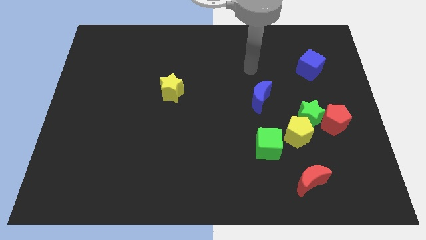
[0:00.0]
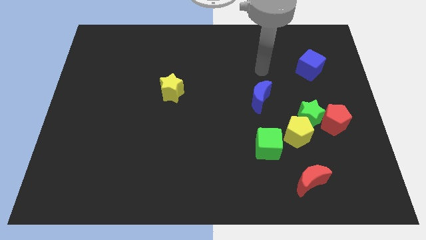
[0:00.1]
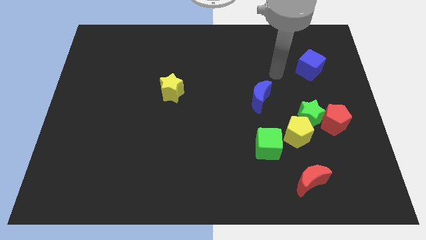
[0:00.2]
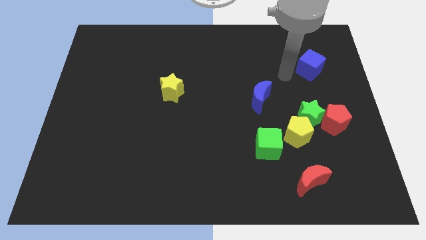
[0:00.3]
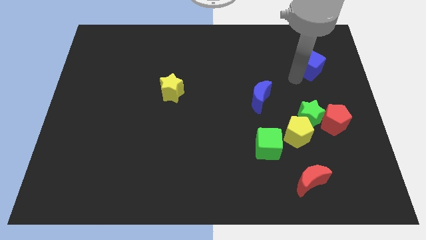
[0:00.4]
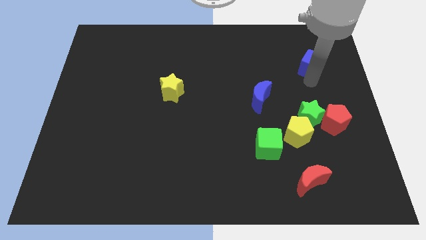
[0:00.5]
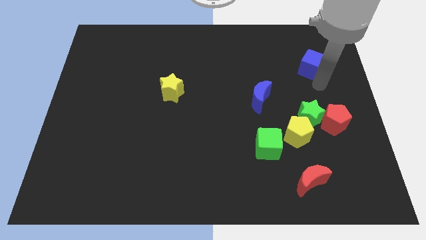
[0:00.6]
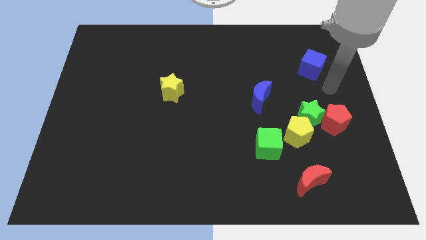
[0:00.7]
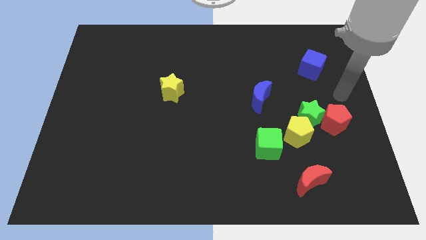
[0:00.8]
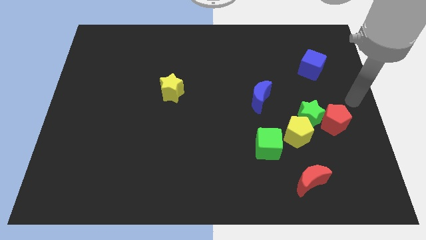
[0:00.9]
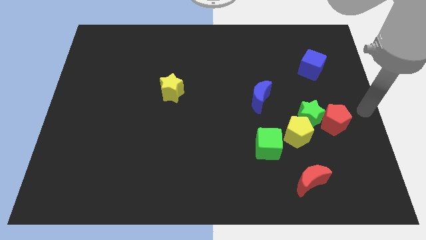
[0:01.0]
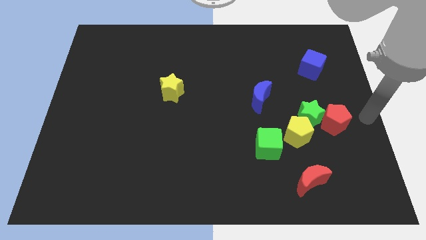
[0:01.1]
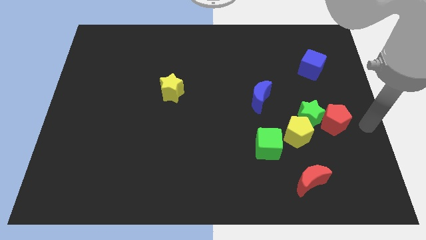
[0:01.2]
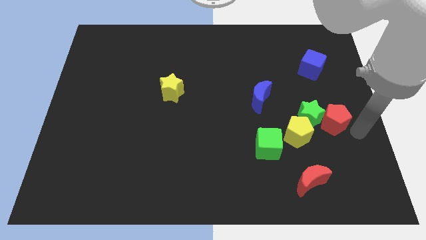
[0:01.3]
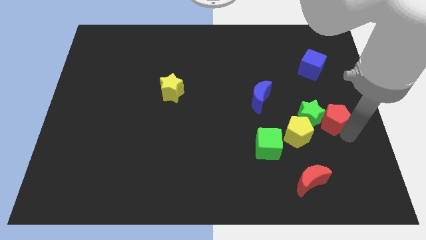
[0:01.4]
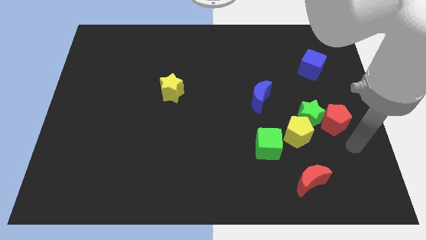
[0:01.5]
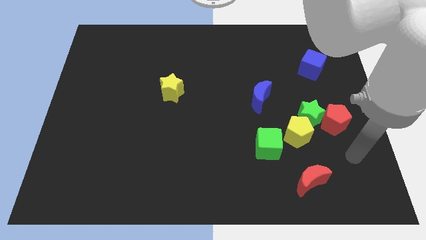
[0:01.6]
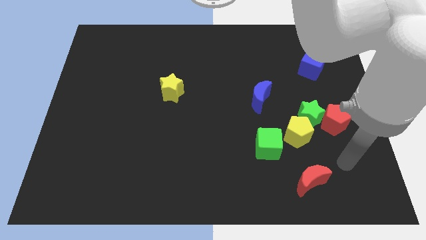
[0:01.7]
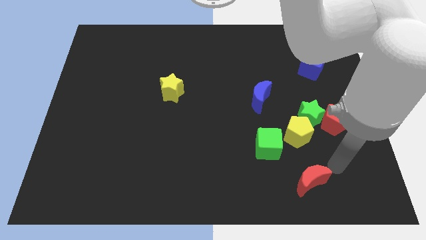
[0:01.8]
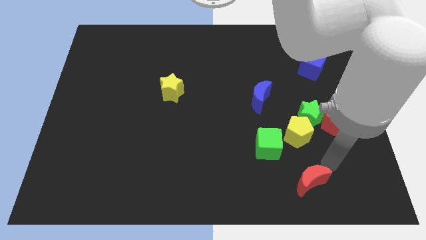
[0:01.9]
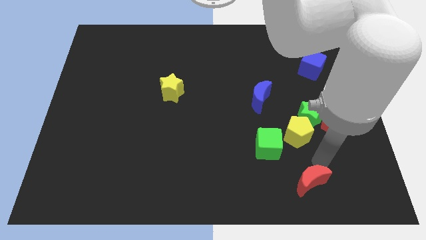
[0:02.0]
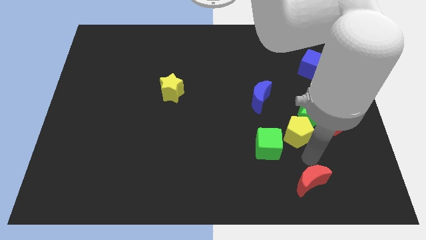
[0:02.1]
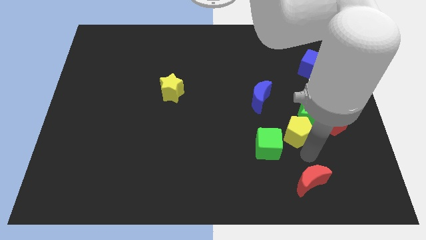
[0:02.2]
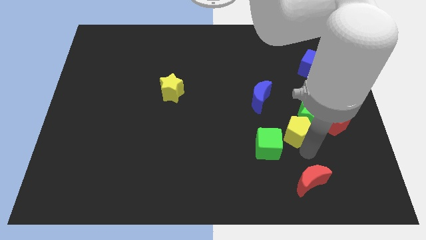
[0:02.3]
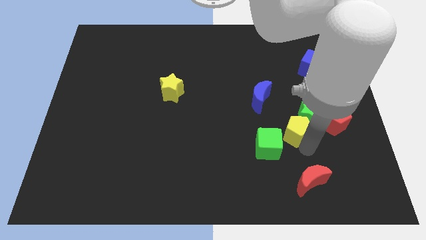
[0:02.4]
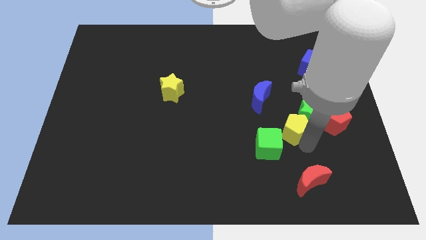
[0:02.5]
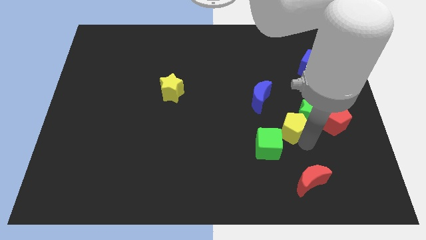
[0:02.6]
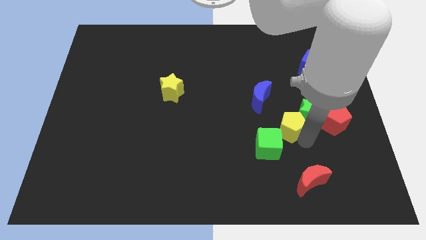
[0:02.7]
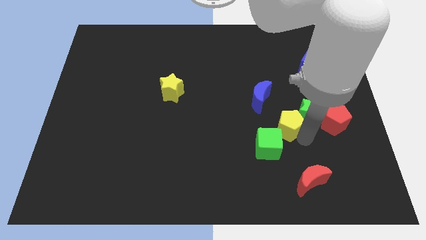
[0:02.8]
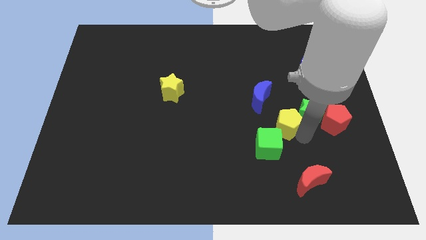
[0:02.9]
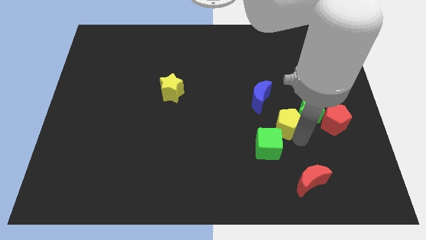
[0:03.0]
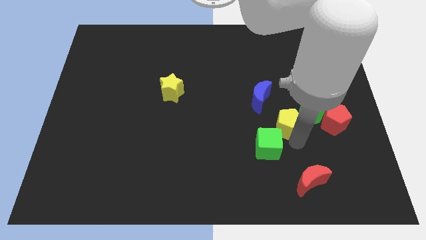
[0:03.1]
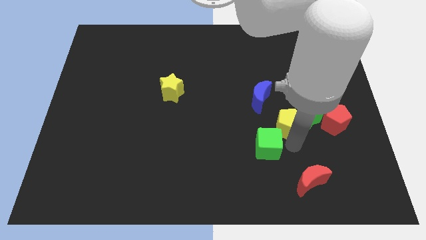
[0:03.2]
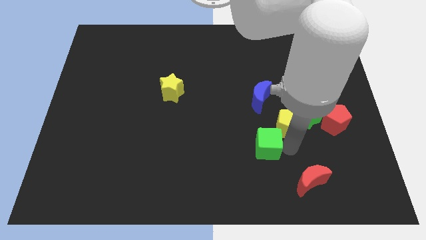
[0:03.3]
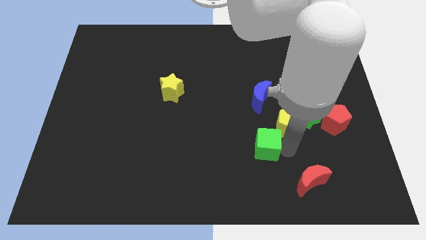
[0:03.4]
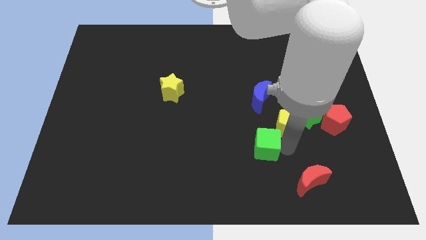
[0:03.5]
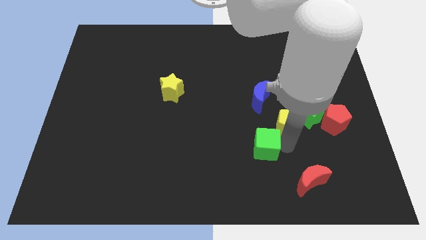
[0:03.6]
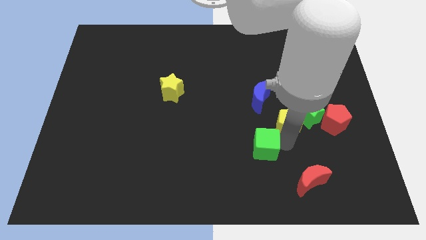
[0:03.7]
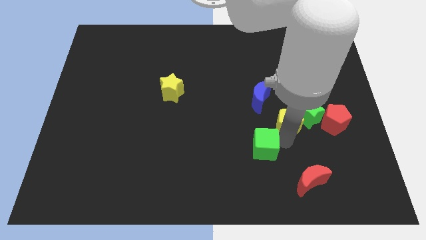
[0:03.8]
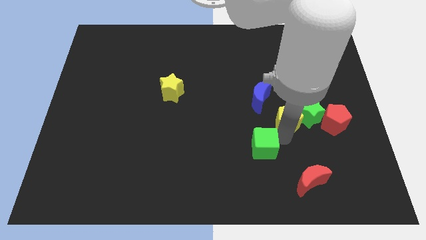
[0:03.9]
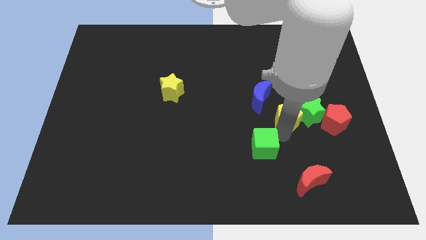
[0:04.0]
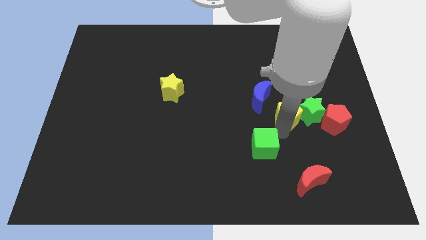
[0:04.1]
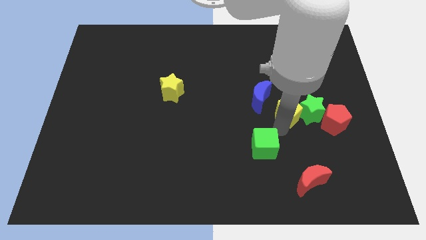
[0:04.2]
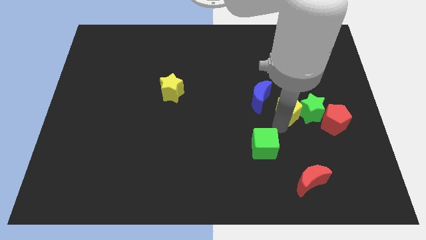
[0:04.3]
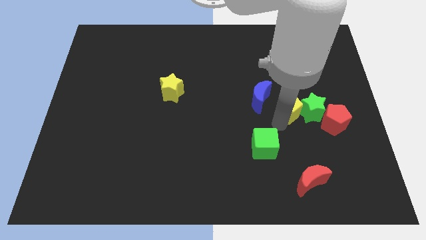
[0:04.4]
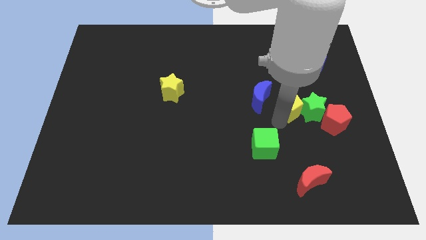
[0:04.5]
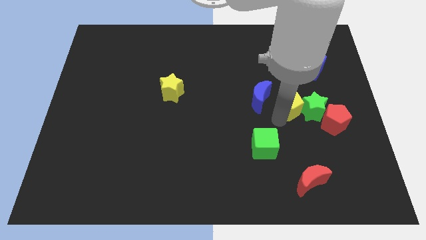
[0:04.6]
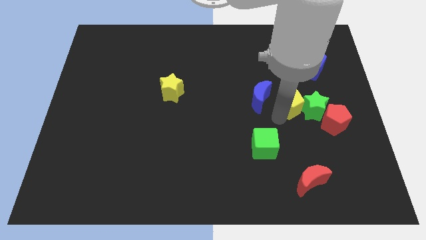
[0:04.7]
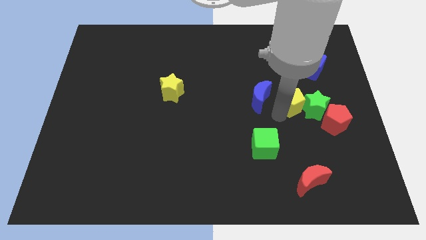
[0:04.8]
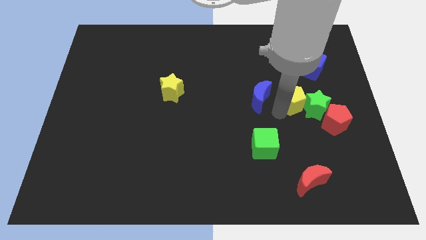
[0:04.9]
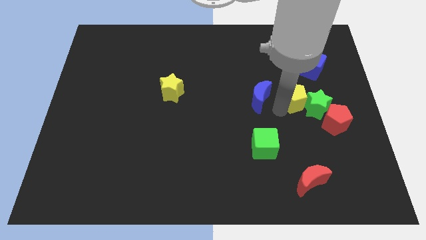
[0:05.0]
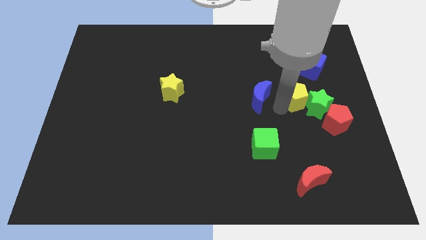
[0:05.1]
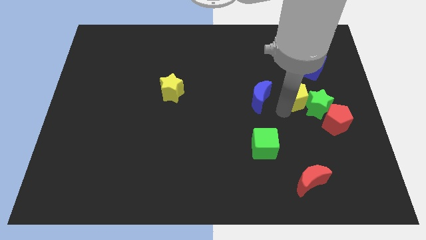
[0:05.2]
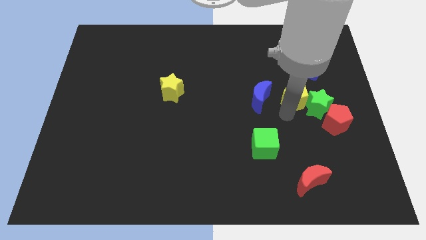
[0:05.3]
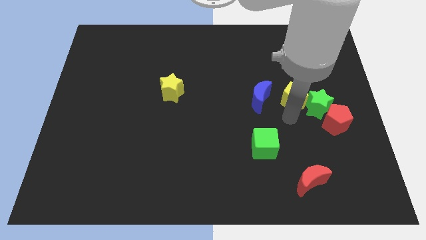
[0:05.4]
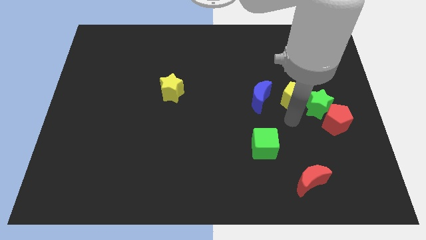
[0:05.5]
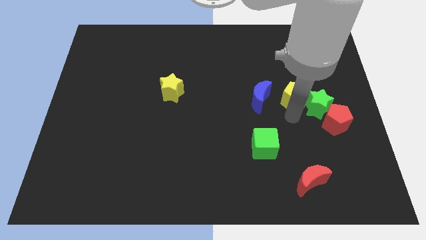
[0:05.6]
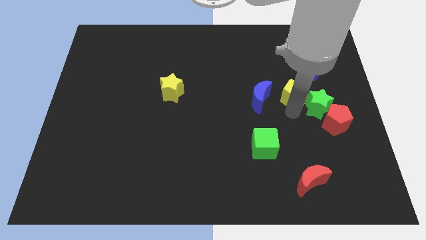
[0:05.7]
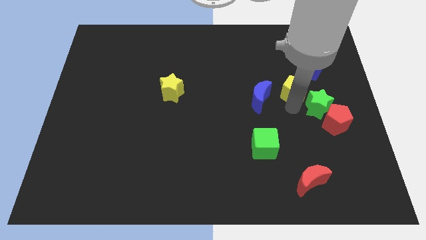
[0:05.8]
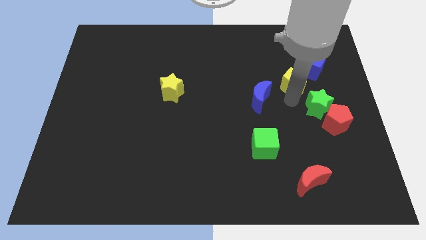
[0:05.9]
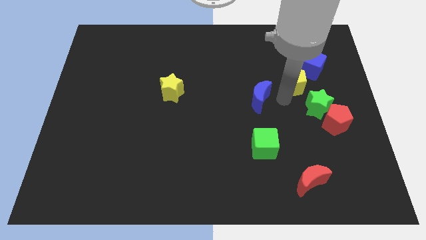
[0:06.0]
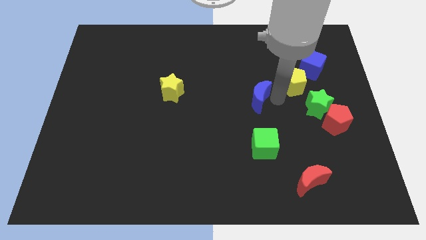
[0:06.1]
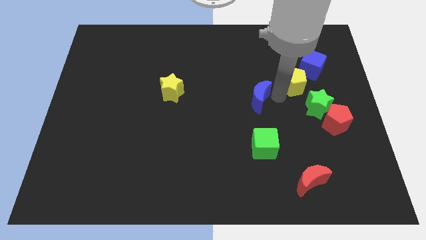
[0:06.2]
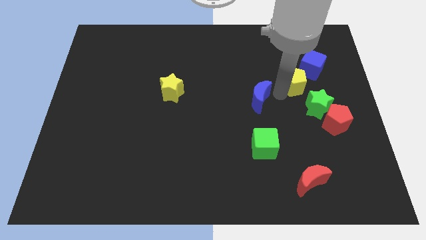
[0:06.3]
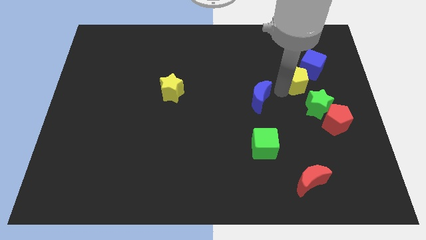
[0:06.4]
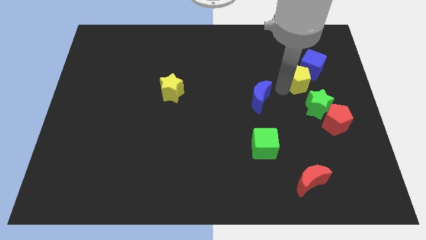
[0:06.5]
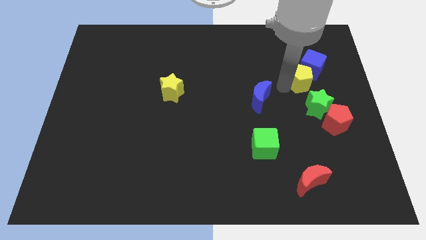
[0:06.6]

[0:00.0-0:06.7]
move the yellow pentagon to the blue cube

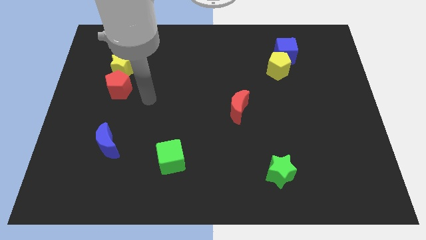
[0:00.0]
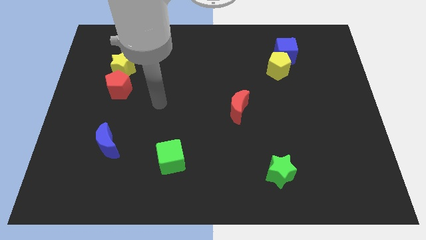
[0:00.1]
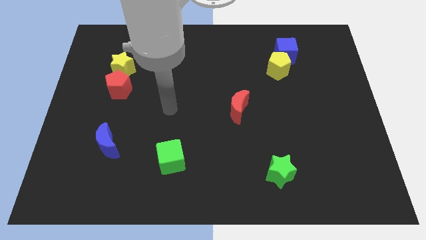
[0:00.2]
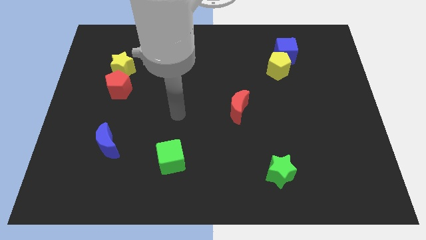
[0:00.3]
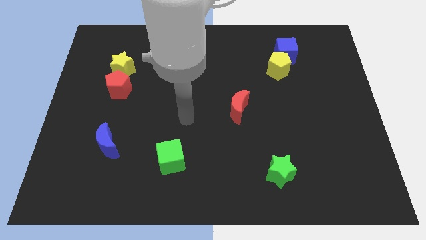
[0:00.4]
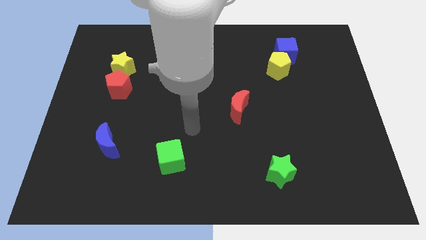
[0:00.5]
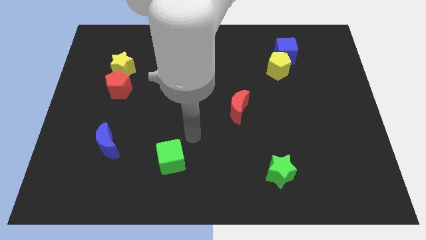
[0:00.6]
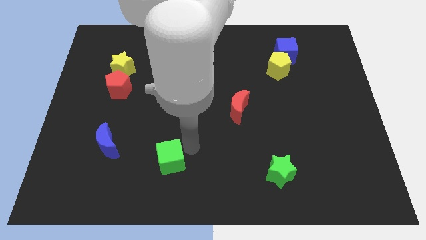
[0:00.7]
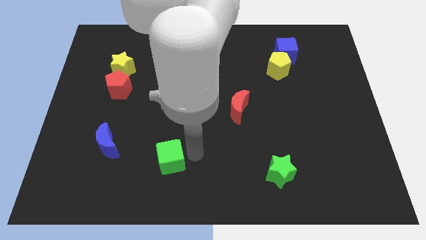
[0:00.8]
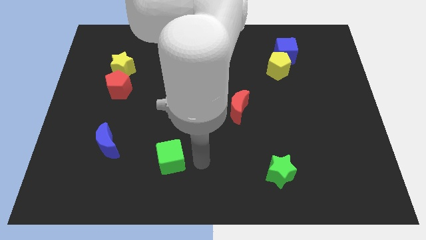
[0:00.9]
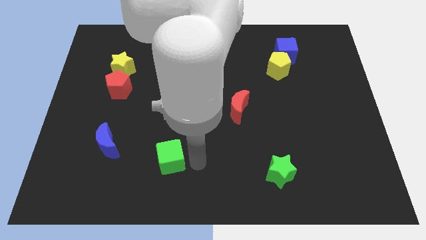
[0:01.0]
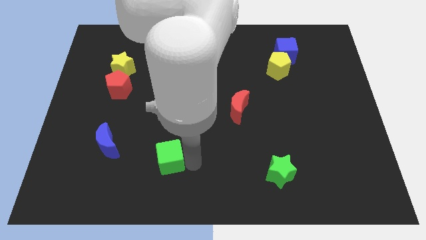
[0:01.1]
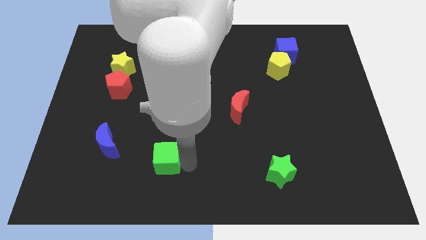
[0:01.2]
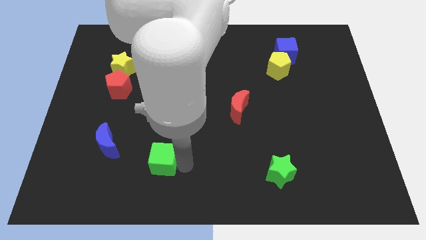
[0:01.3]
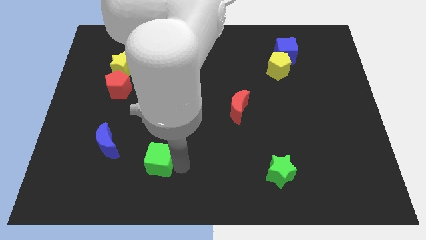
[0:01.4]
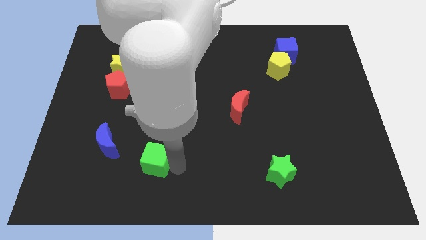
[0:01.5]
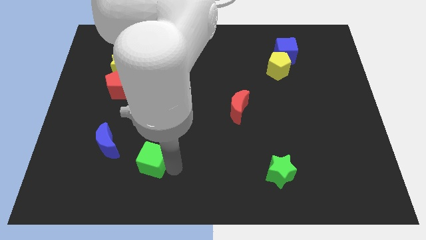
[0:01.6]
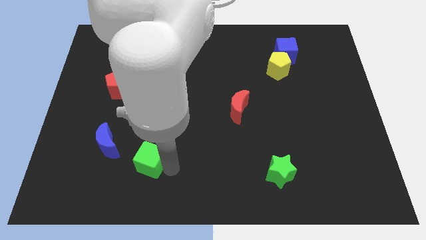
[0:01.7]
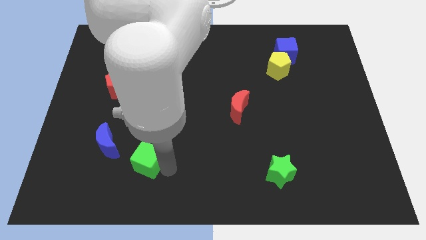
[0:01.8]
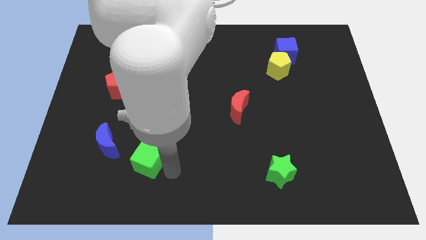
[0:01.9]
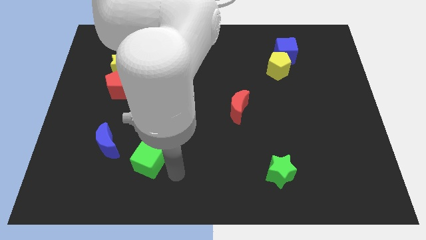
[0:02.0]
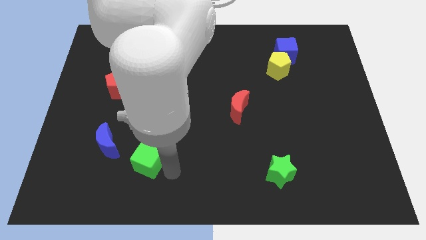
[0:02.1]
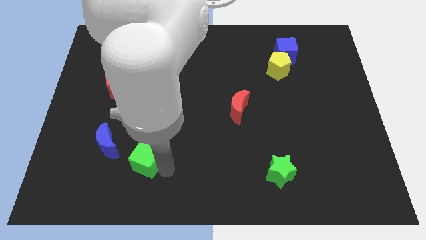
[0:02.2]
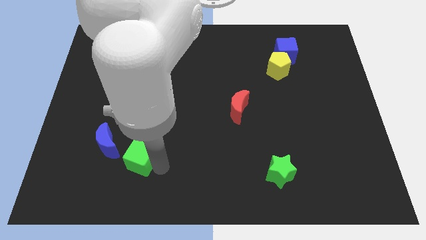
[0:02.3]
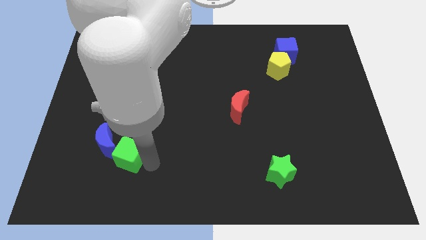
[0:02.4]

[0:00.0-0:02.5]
push the green cube close to the blue moon
